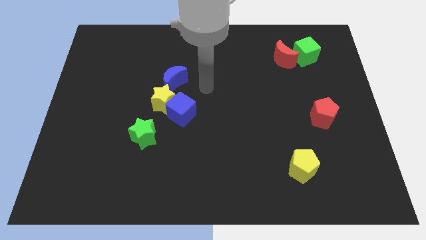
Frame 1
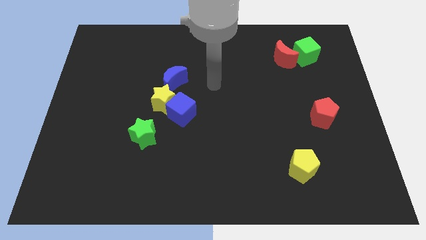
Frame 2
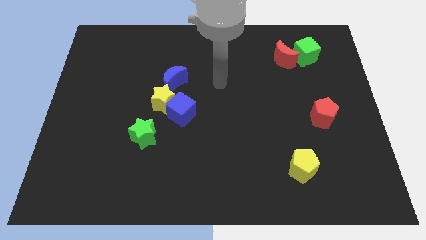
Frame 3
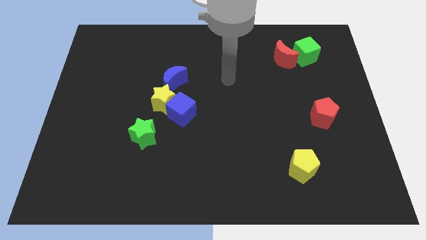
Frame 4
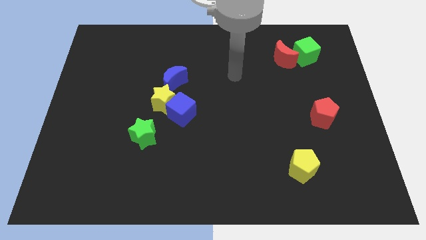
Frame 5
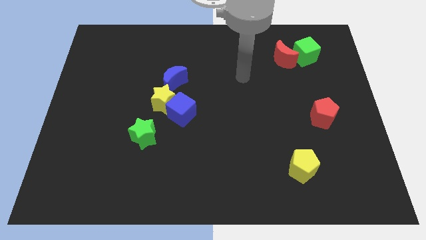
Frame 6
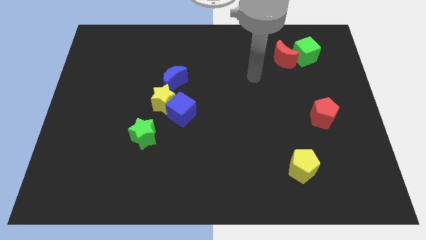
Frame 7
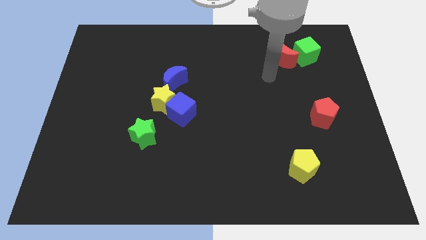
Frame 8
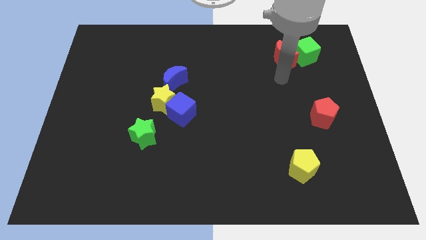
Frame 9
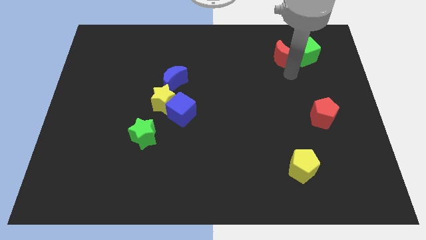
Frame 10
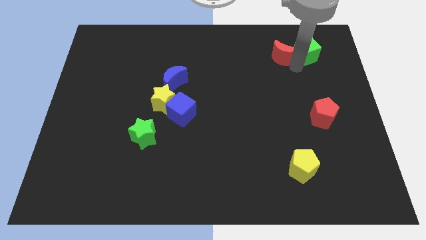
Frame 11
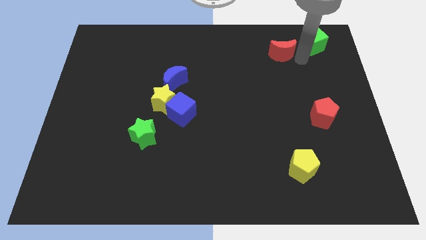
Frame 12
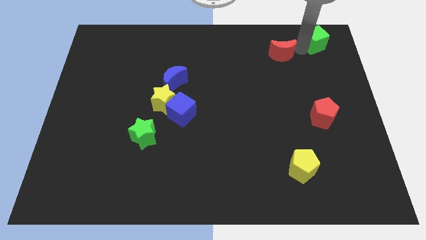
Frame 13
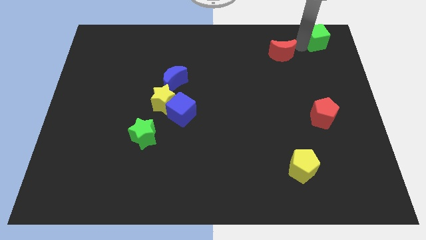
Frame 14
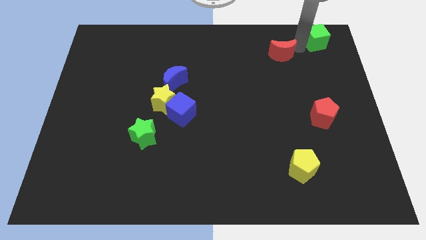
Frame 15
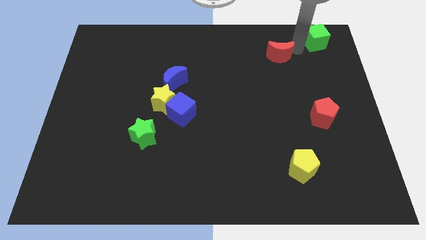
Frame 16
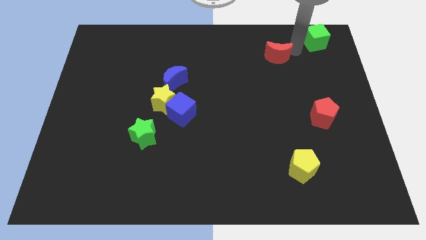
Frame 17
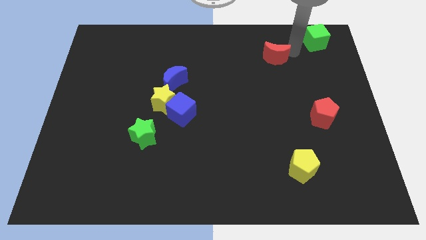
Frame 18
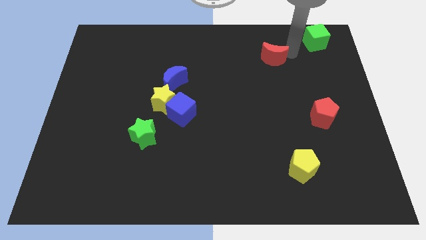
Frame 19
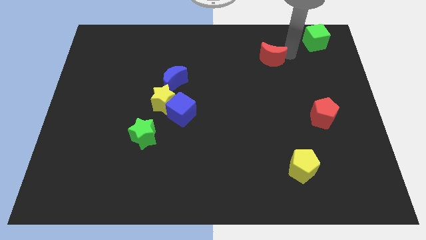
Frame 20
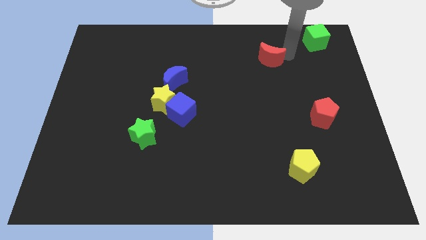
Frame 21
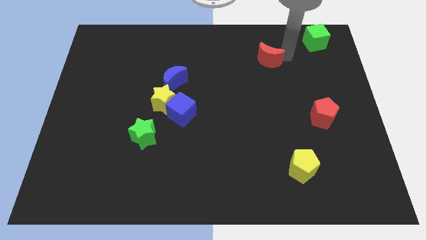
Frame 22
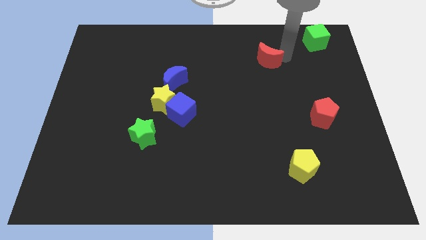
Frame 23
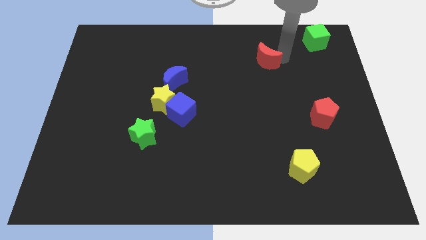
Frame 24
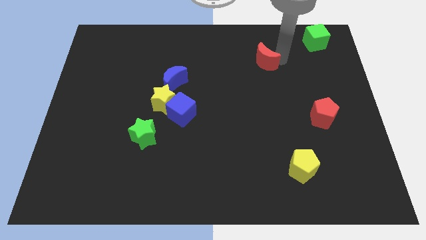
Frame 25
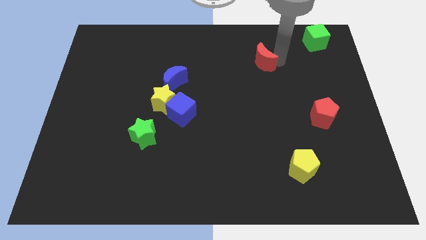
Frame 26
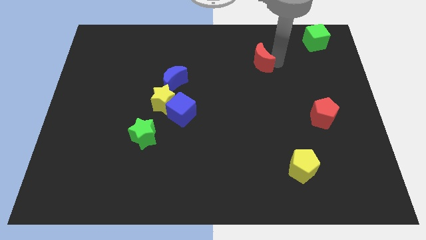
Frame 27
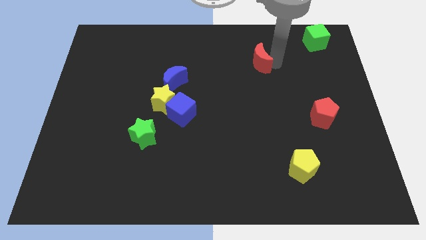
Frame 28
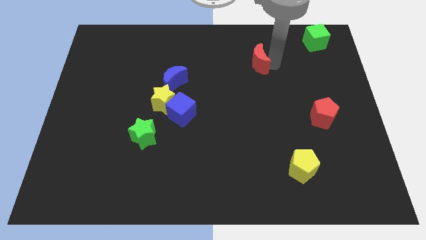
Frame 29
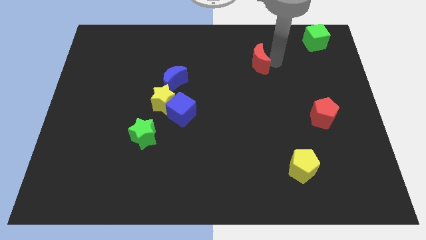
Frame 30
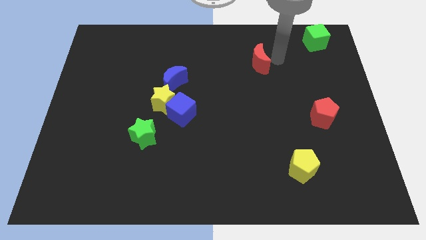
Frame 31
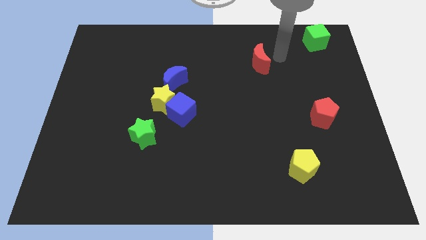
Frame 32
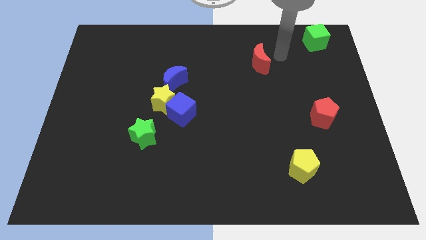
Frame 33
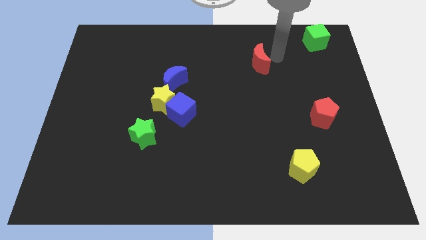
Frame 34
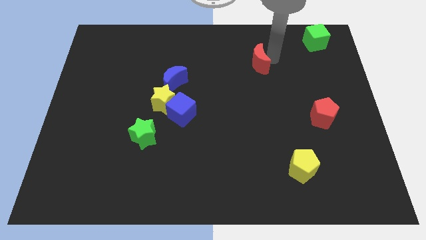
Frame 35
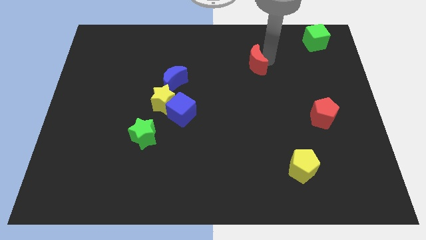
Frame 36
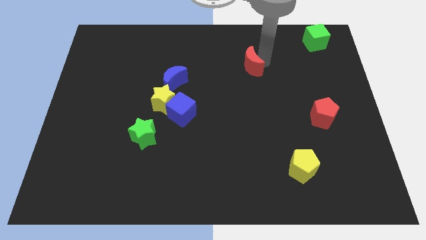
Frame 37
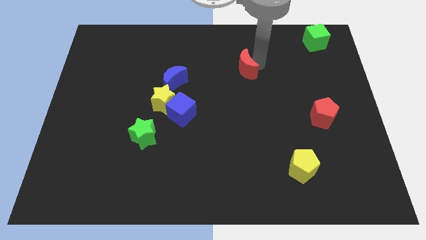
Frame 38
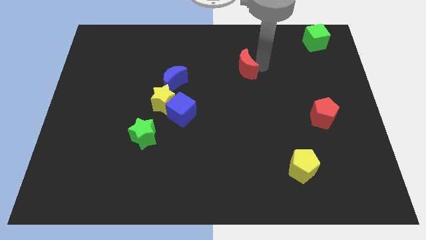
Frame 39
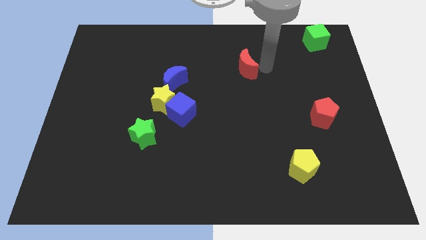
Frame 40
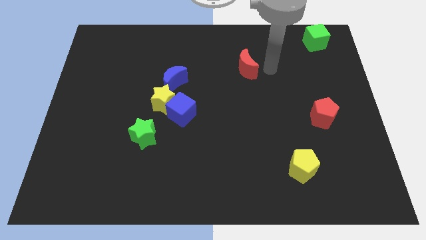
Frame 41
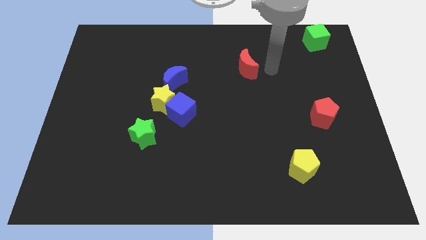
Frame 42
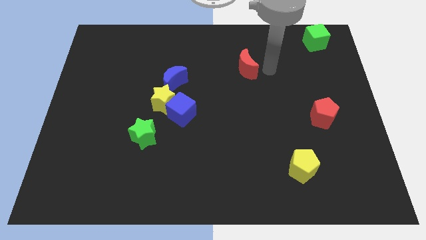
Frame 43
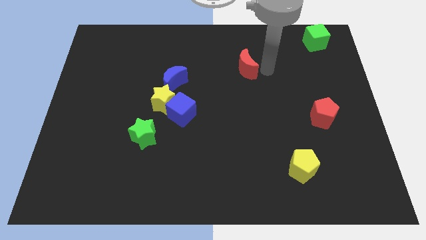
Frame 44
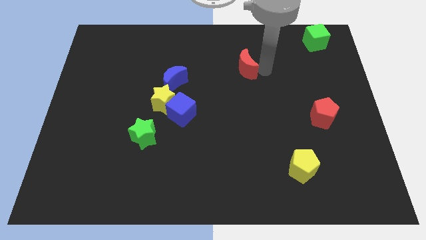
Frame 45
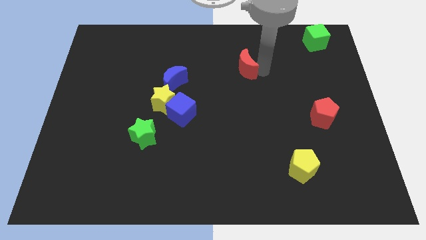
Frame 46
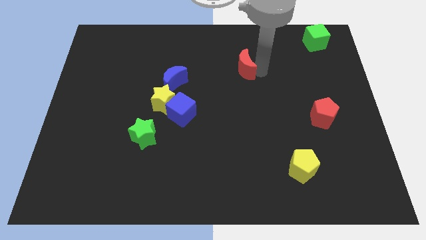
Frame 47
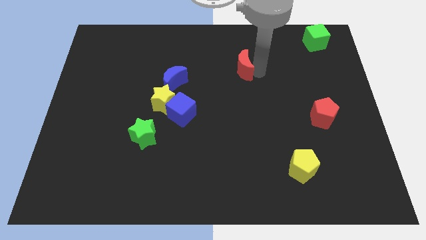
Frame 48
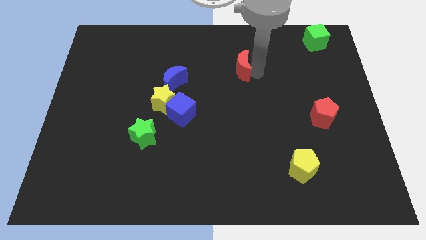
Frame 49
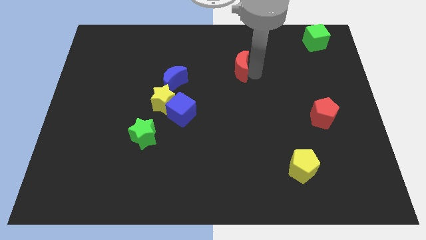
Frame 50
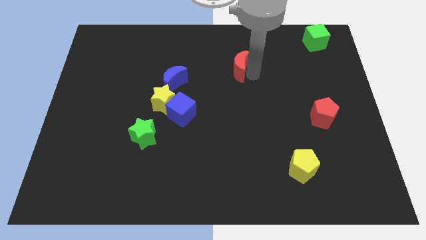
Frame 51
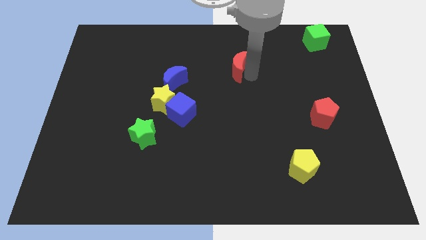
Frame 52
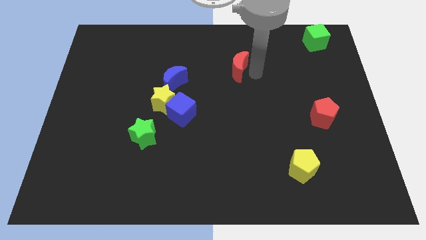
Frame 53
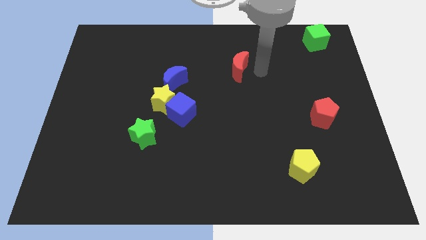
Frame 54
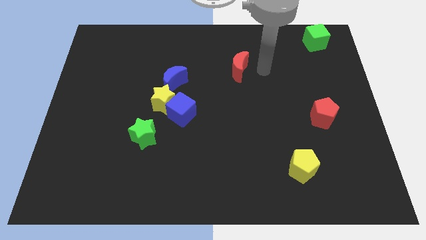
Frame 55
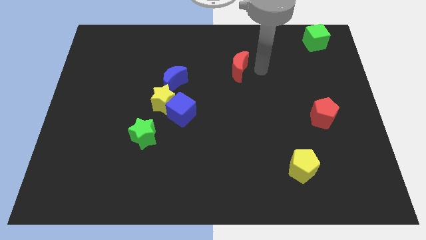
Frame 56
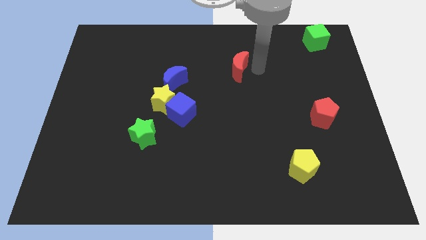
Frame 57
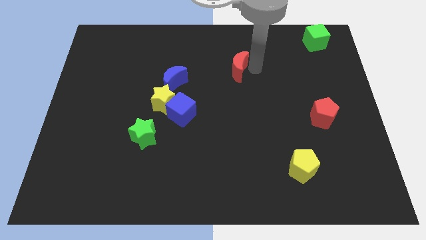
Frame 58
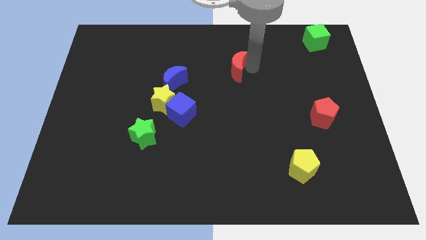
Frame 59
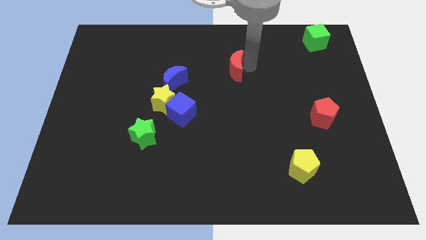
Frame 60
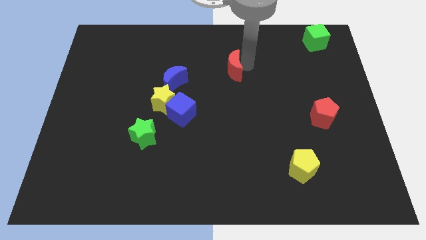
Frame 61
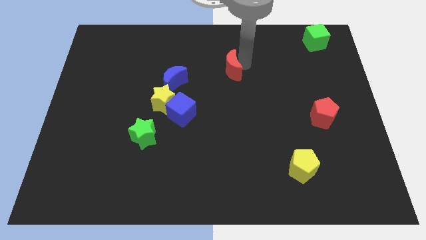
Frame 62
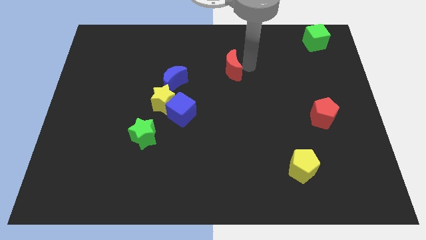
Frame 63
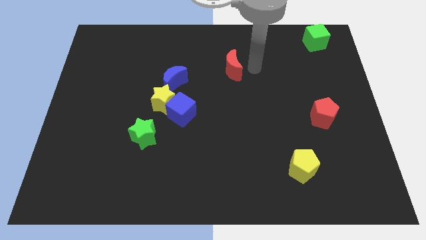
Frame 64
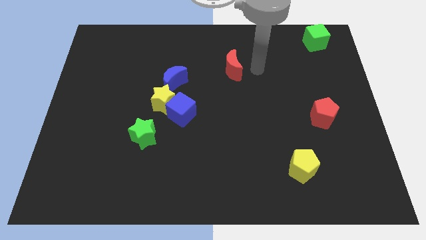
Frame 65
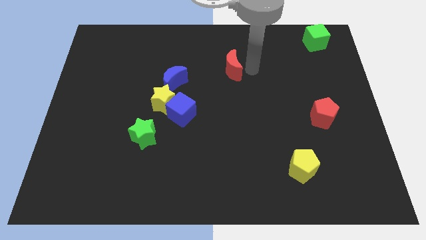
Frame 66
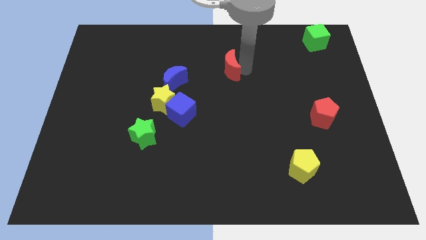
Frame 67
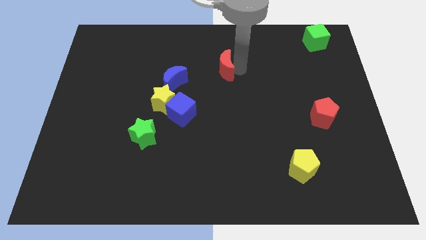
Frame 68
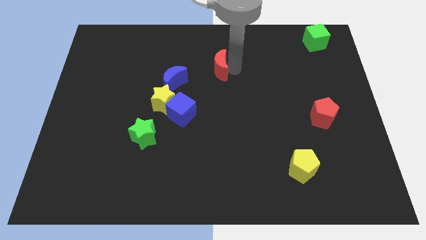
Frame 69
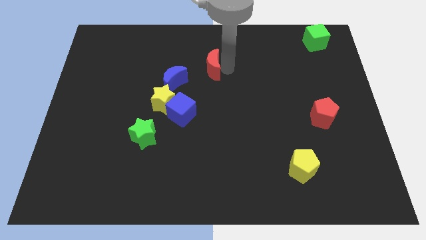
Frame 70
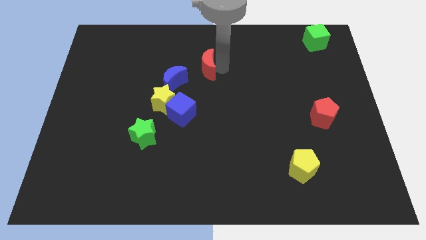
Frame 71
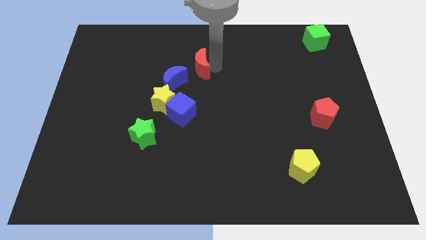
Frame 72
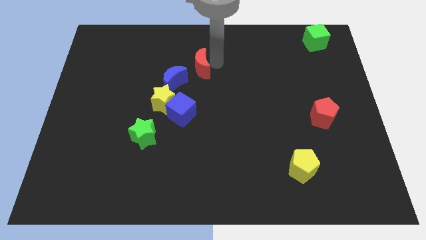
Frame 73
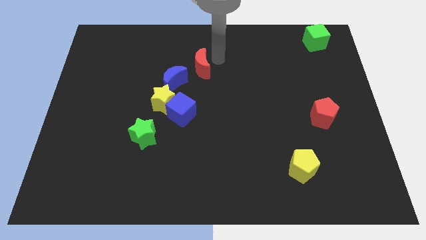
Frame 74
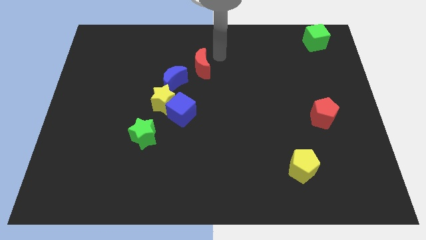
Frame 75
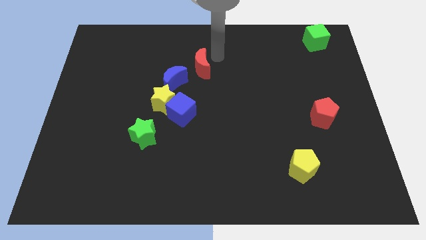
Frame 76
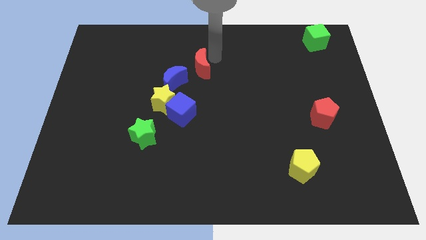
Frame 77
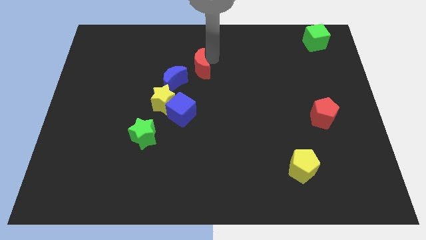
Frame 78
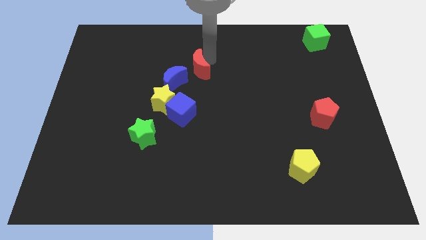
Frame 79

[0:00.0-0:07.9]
push the red moon to the top side of the blue cube
